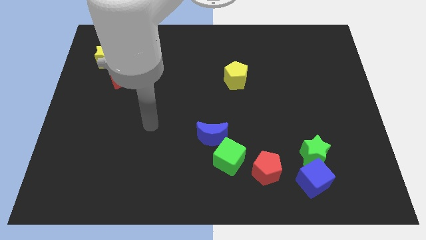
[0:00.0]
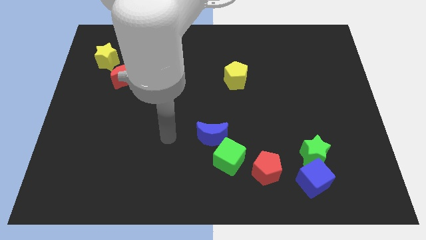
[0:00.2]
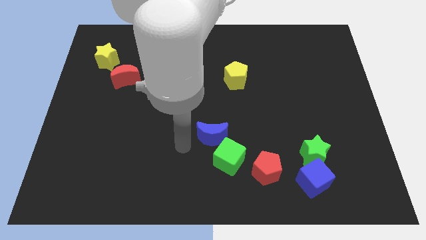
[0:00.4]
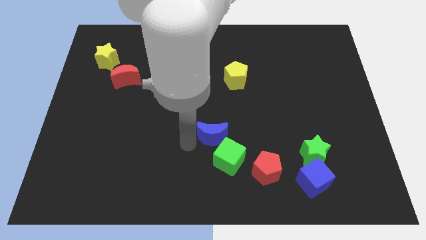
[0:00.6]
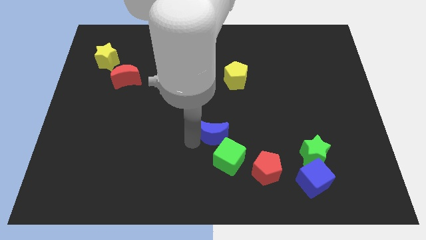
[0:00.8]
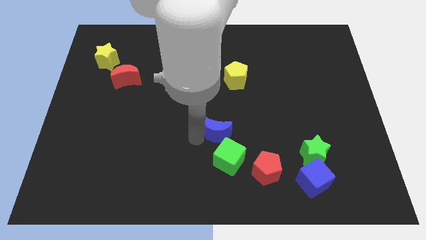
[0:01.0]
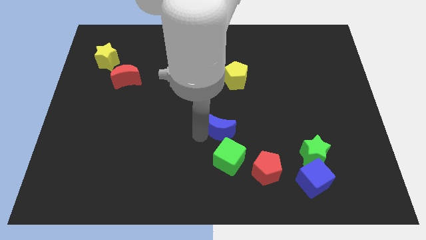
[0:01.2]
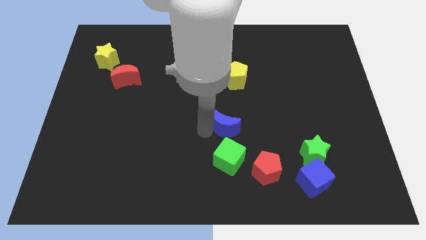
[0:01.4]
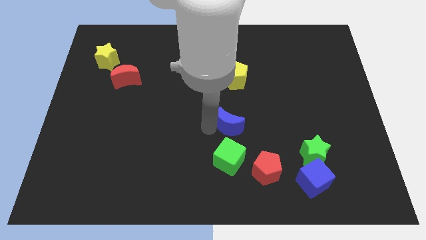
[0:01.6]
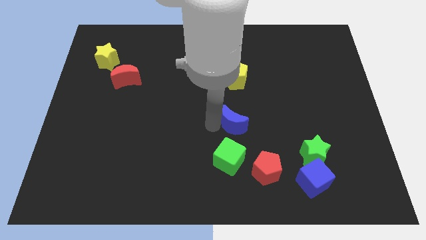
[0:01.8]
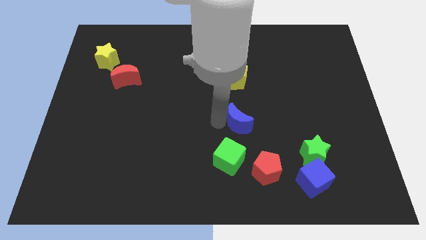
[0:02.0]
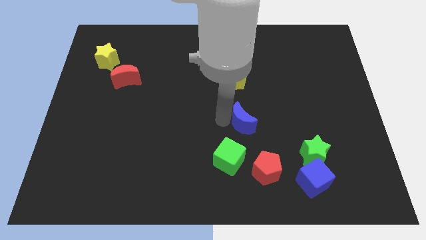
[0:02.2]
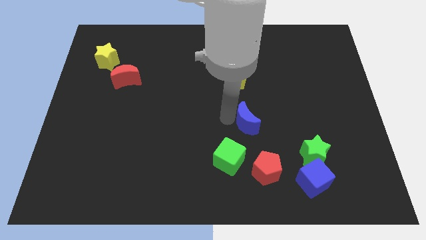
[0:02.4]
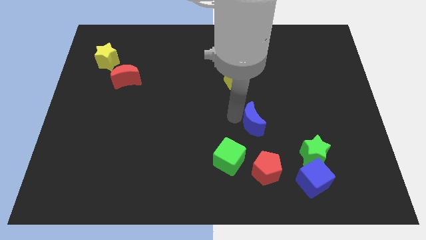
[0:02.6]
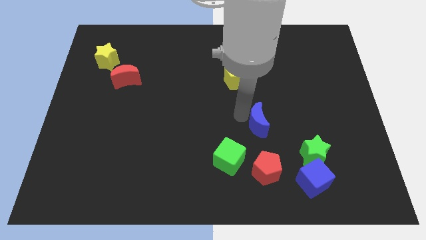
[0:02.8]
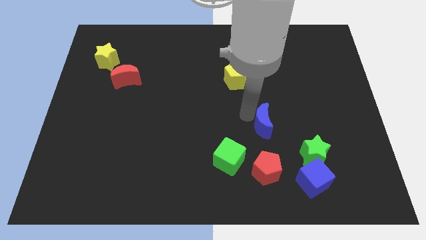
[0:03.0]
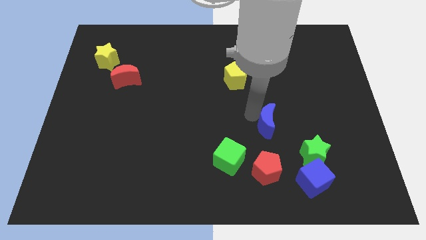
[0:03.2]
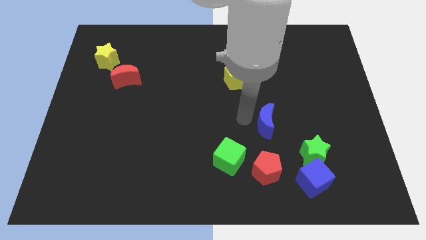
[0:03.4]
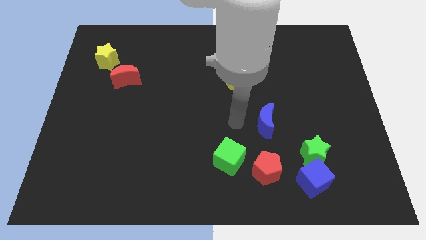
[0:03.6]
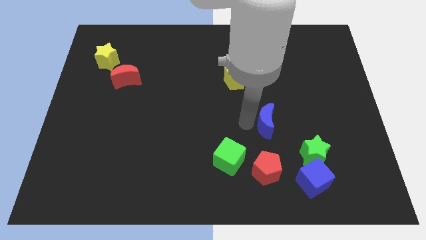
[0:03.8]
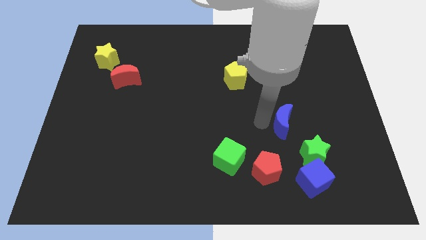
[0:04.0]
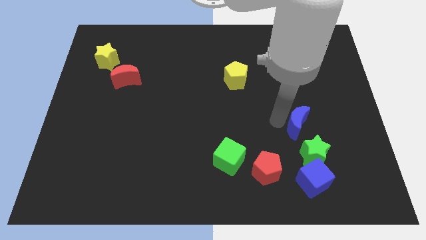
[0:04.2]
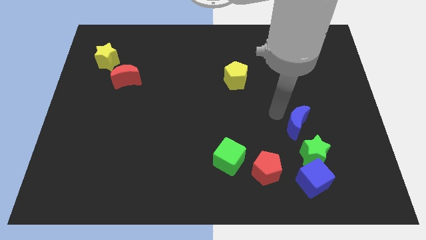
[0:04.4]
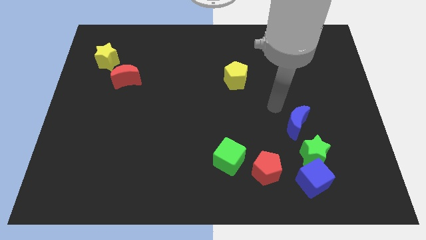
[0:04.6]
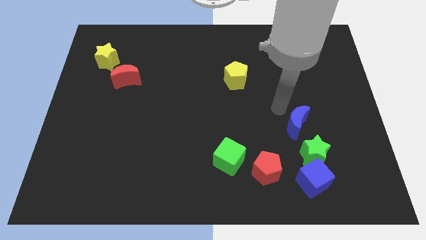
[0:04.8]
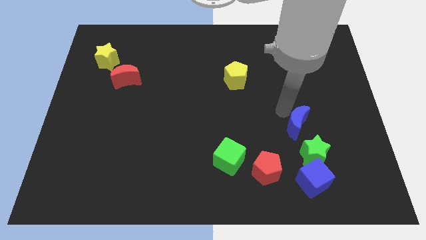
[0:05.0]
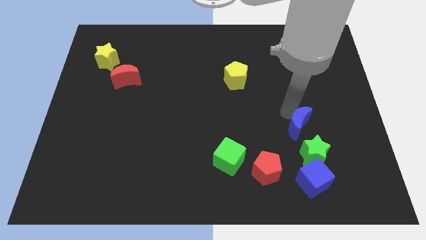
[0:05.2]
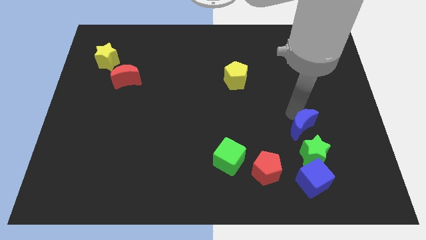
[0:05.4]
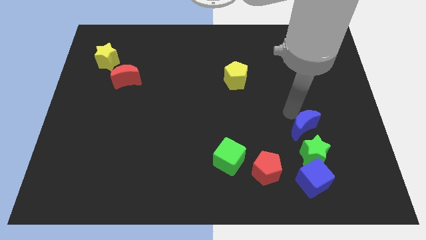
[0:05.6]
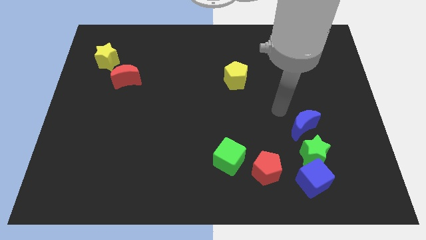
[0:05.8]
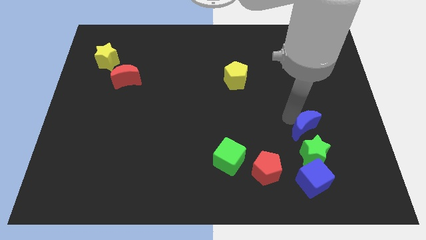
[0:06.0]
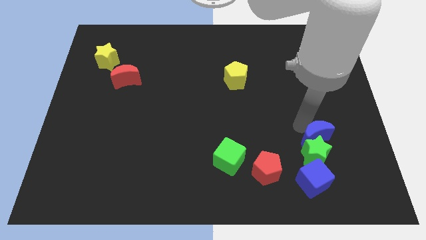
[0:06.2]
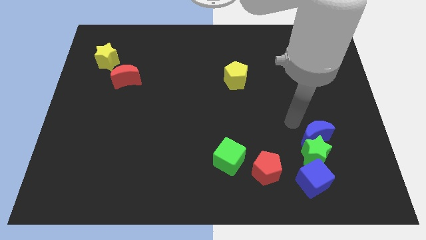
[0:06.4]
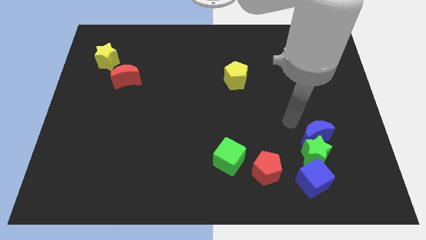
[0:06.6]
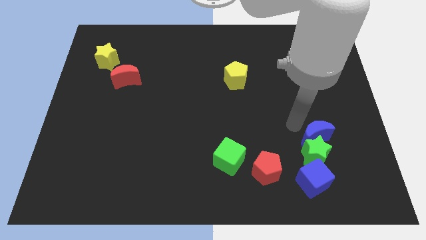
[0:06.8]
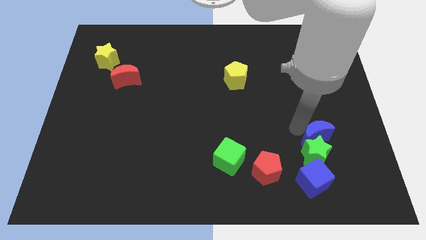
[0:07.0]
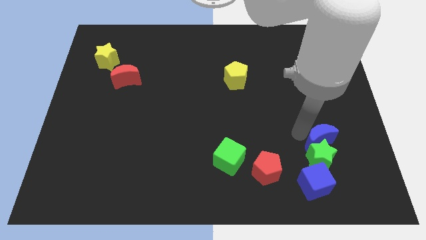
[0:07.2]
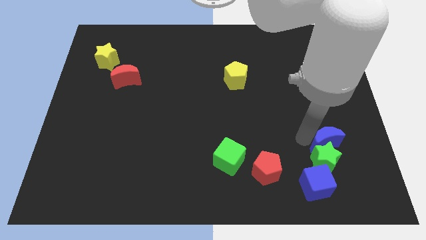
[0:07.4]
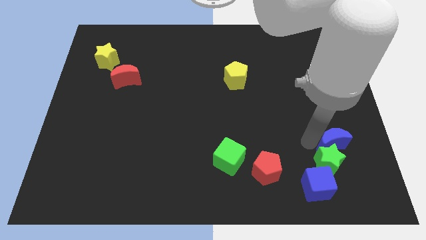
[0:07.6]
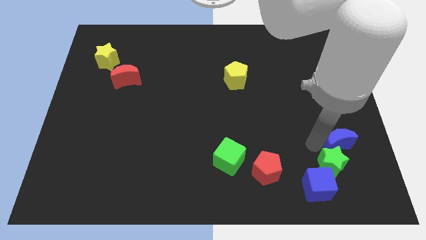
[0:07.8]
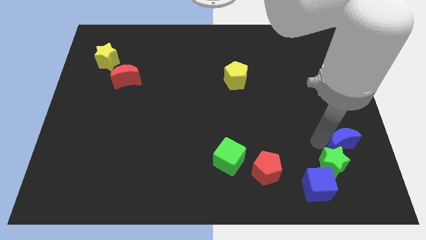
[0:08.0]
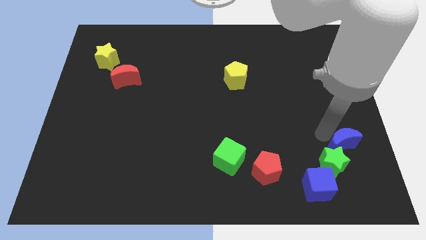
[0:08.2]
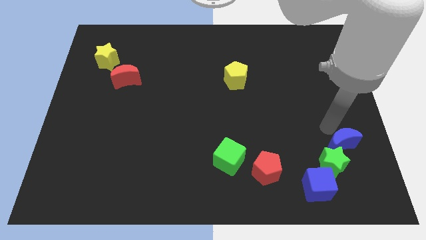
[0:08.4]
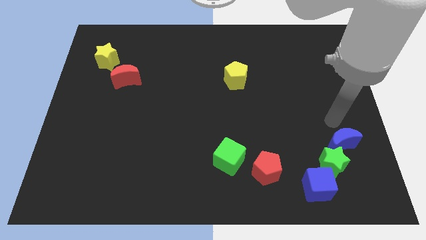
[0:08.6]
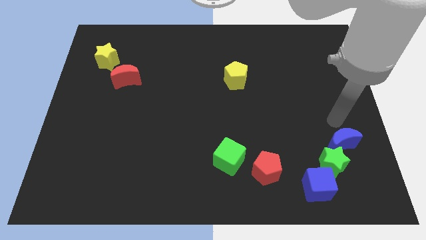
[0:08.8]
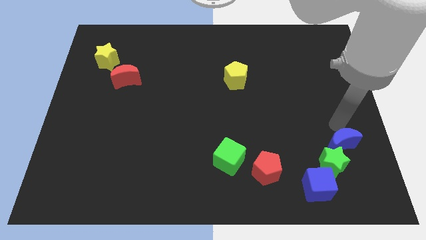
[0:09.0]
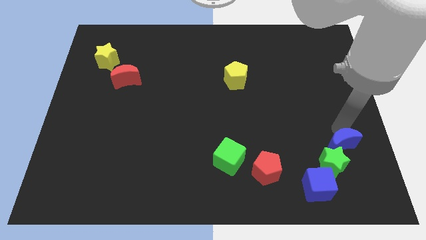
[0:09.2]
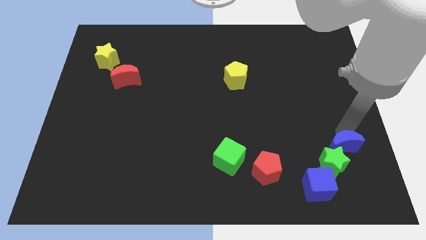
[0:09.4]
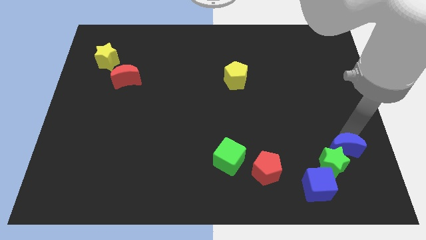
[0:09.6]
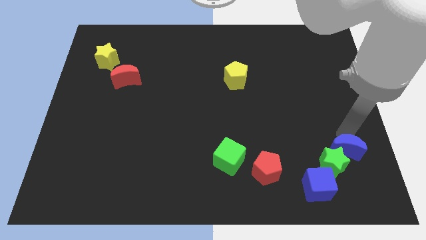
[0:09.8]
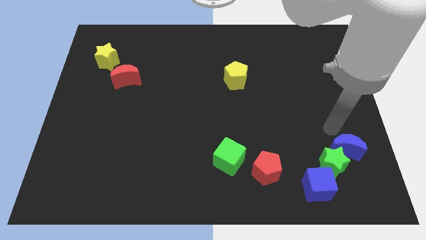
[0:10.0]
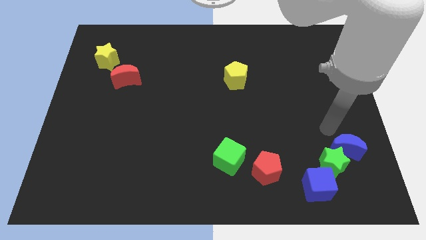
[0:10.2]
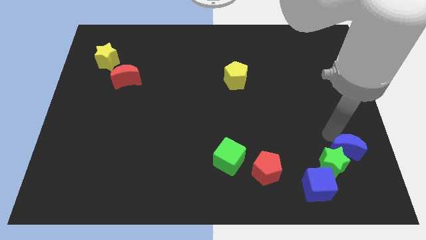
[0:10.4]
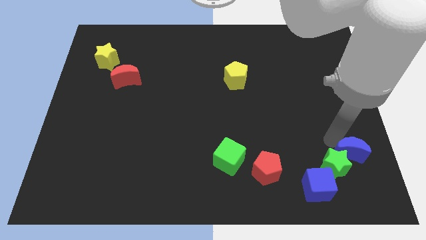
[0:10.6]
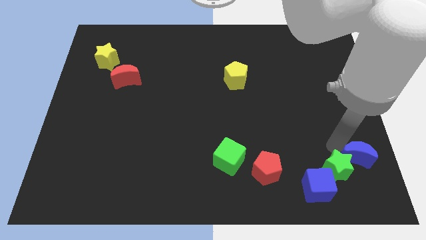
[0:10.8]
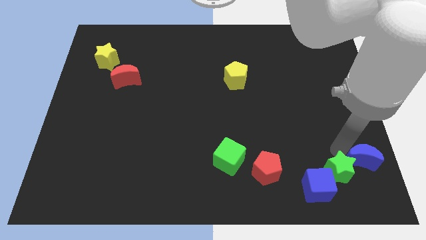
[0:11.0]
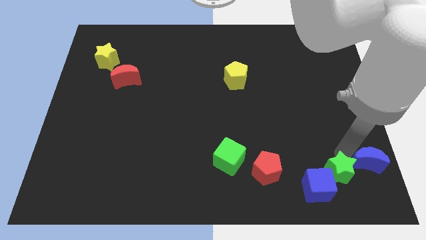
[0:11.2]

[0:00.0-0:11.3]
slide the blue moon to the bottom right of the board

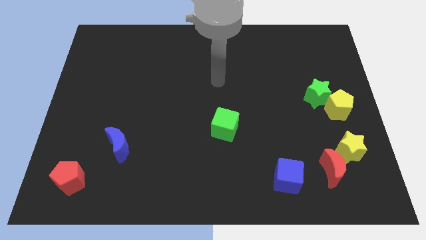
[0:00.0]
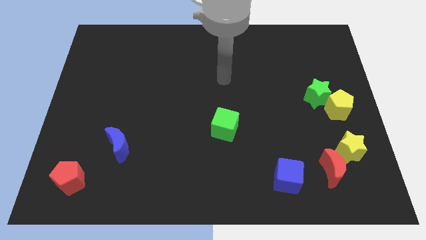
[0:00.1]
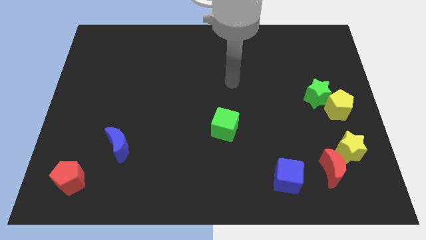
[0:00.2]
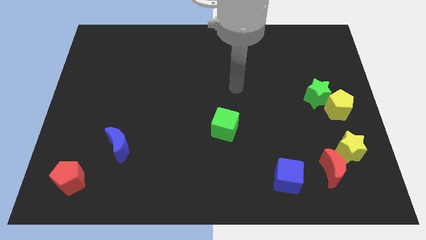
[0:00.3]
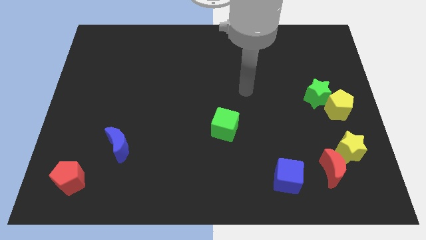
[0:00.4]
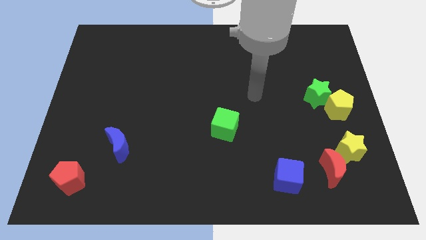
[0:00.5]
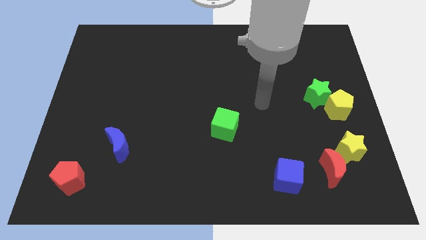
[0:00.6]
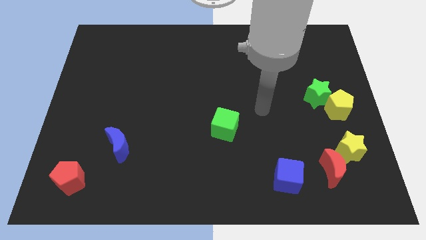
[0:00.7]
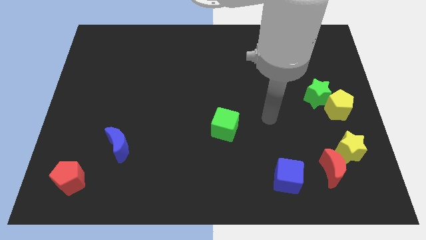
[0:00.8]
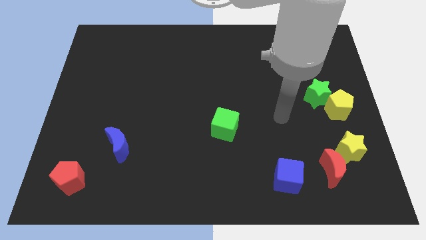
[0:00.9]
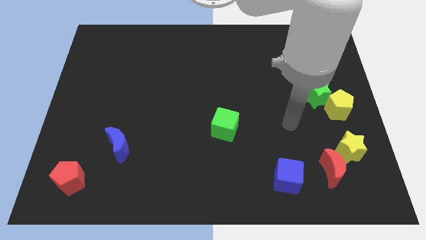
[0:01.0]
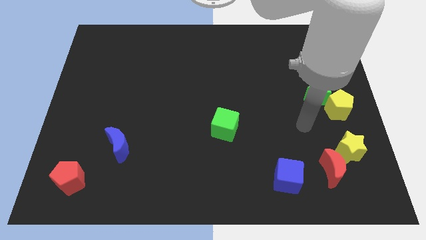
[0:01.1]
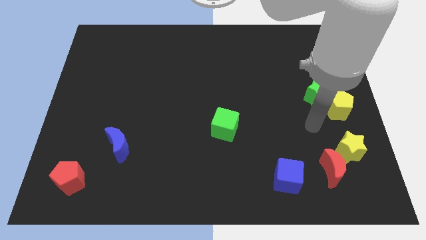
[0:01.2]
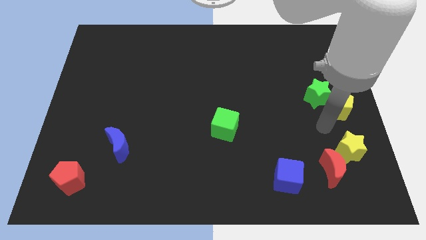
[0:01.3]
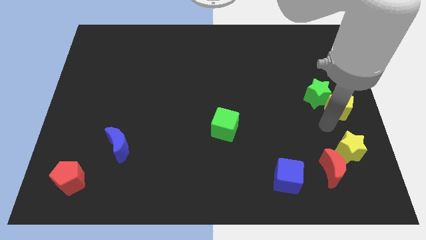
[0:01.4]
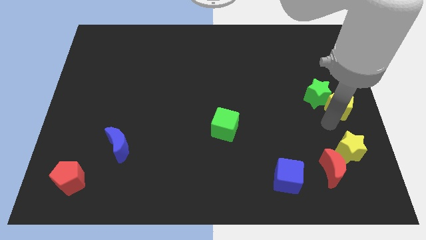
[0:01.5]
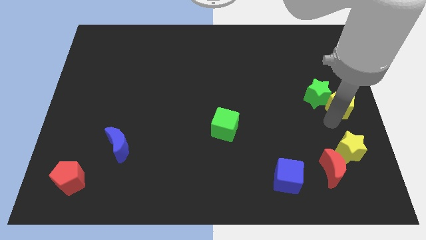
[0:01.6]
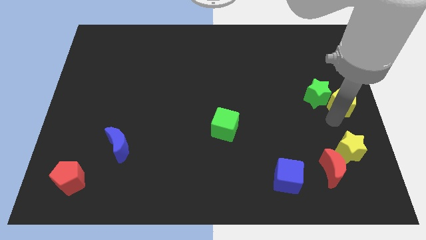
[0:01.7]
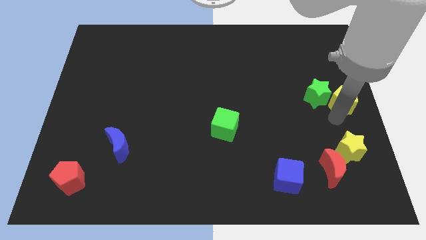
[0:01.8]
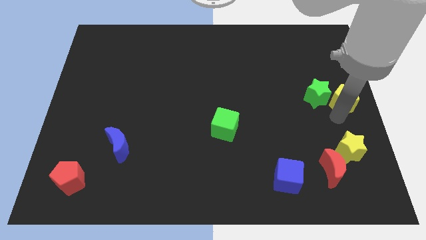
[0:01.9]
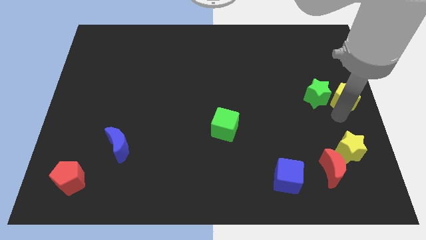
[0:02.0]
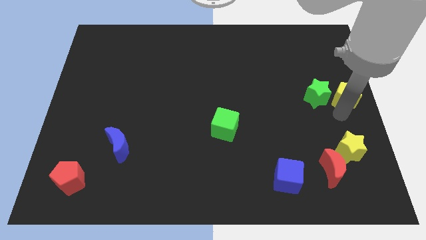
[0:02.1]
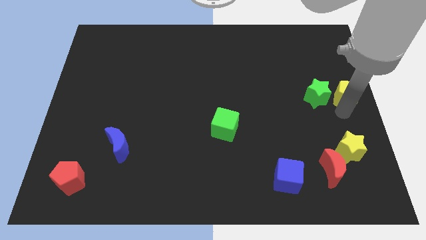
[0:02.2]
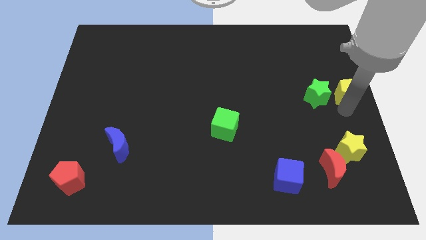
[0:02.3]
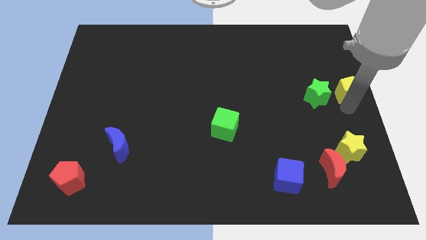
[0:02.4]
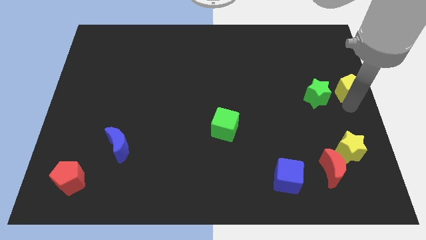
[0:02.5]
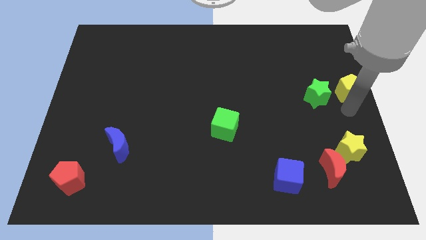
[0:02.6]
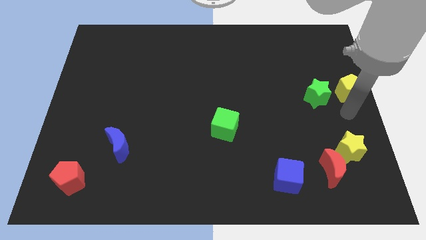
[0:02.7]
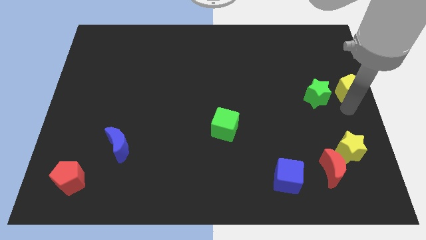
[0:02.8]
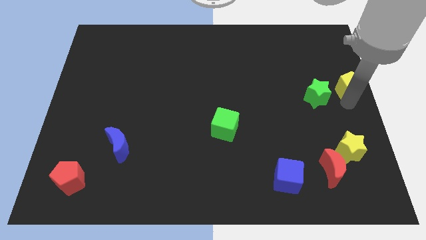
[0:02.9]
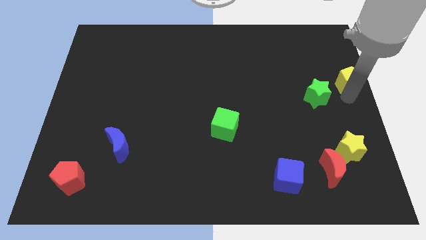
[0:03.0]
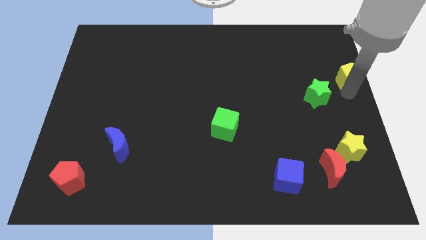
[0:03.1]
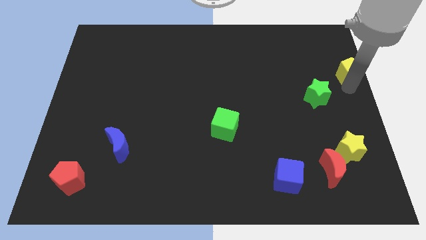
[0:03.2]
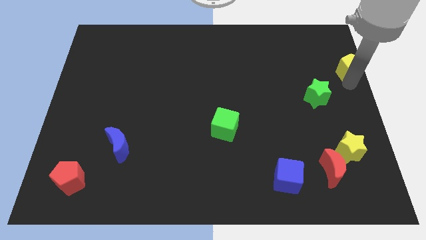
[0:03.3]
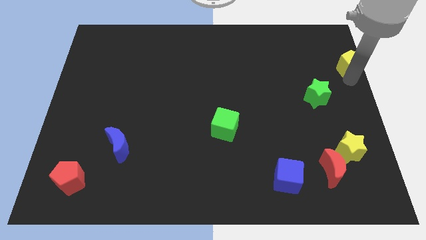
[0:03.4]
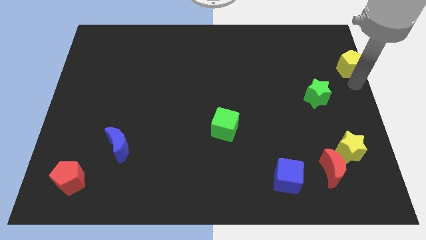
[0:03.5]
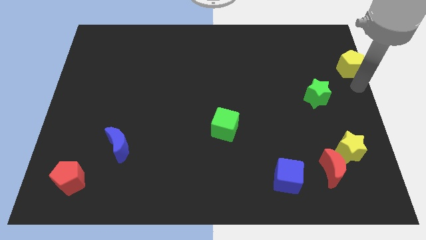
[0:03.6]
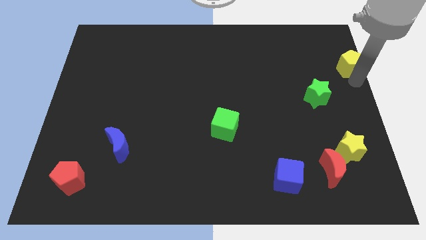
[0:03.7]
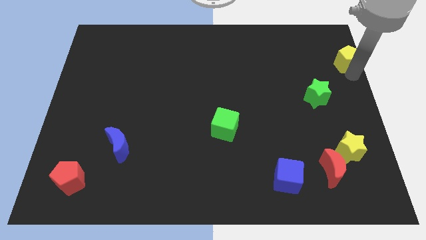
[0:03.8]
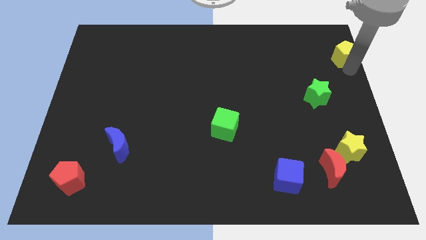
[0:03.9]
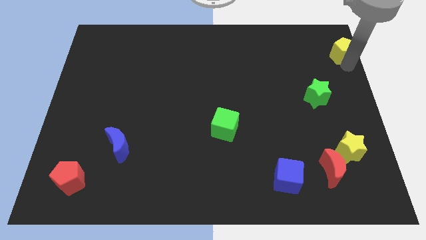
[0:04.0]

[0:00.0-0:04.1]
slide the yellow pentagon to the top right of the board
